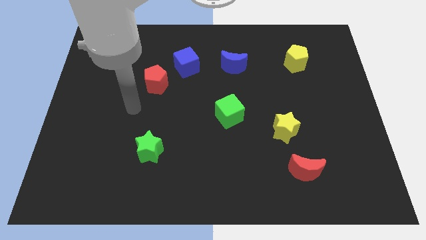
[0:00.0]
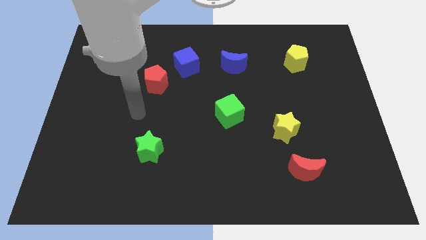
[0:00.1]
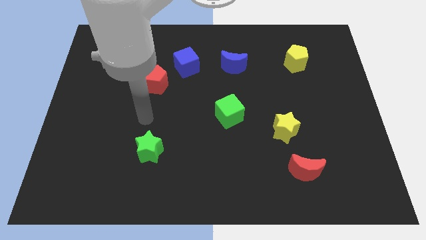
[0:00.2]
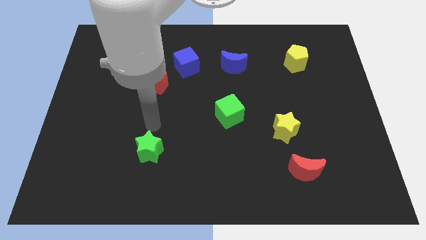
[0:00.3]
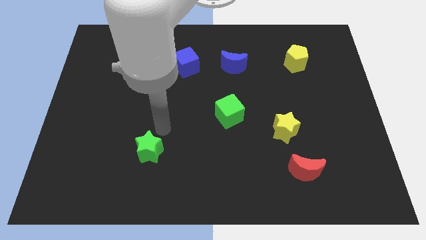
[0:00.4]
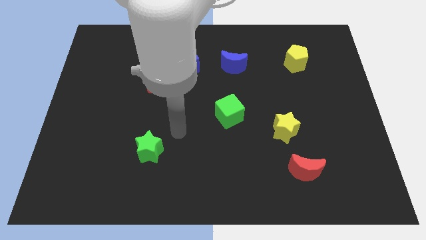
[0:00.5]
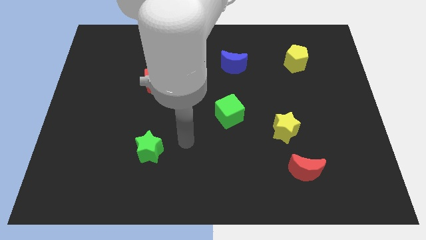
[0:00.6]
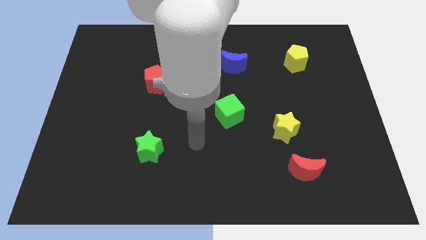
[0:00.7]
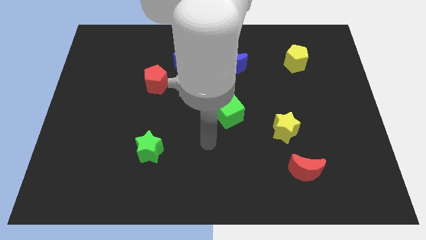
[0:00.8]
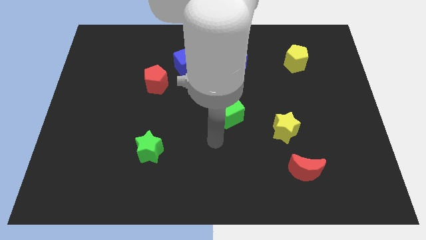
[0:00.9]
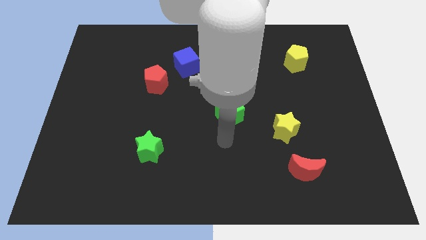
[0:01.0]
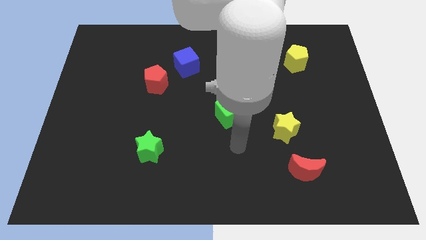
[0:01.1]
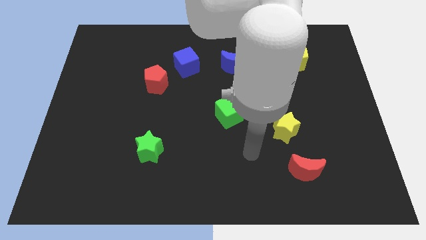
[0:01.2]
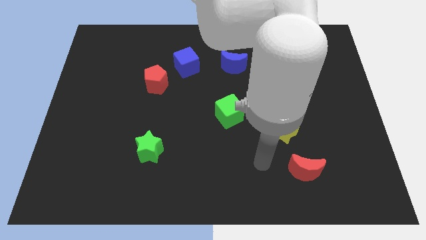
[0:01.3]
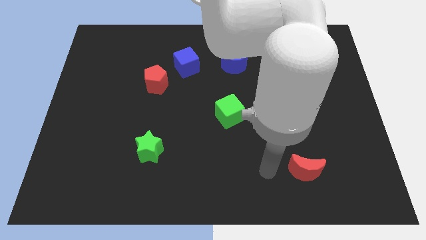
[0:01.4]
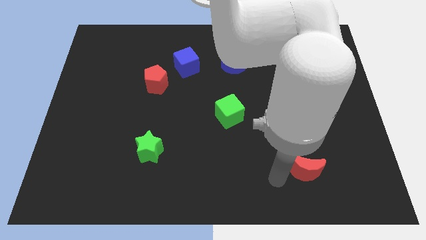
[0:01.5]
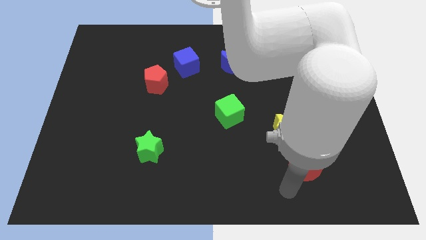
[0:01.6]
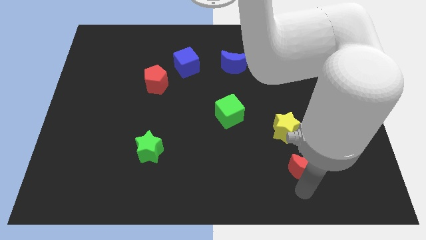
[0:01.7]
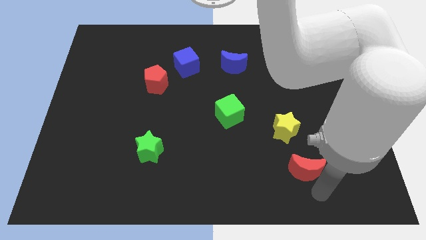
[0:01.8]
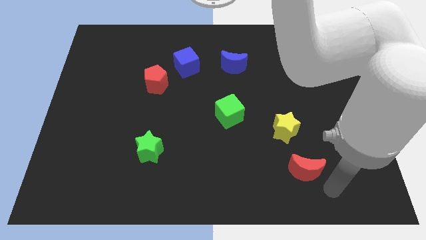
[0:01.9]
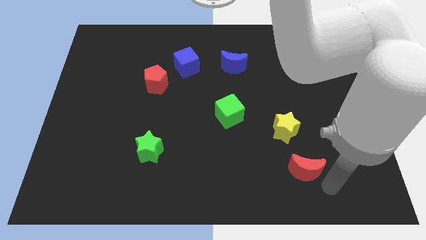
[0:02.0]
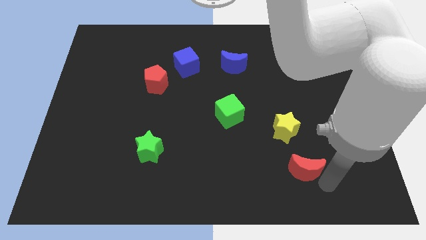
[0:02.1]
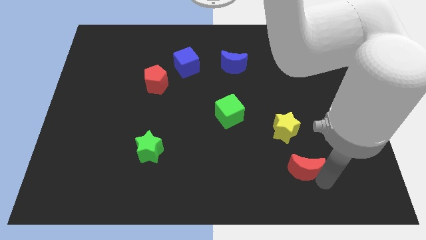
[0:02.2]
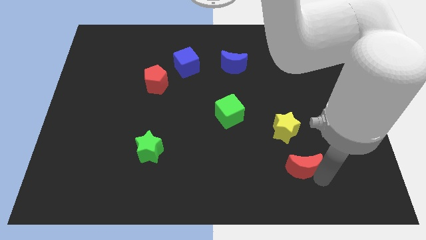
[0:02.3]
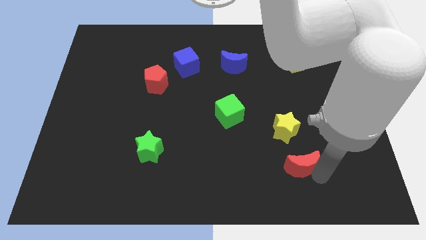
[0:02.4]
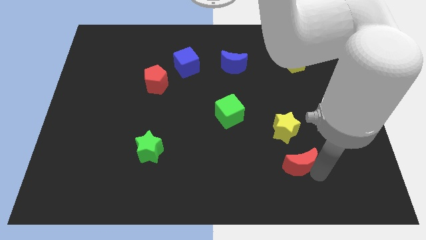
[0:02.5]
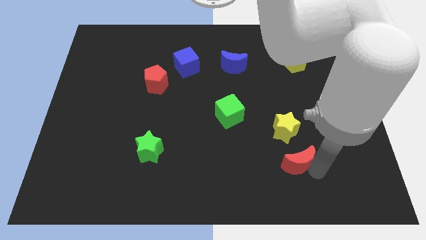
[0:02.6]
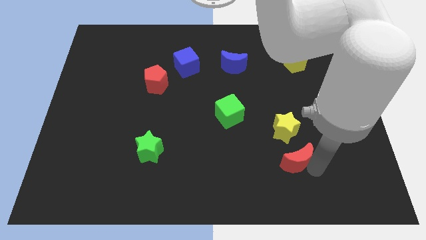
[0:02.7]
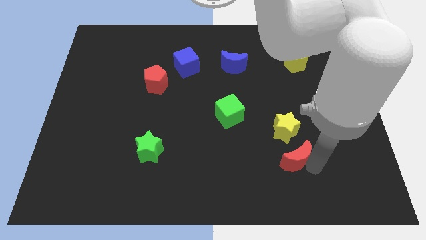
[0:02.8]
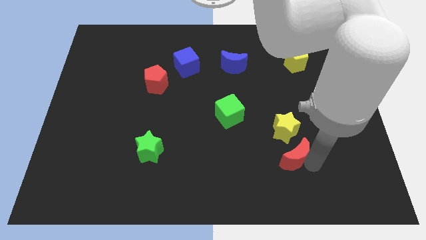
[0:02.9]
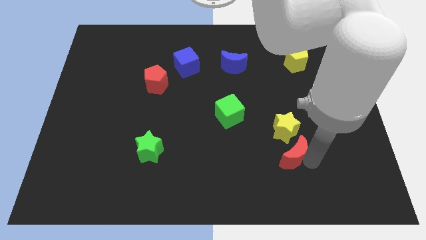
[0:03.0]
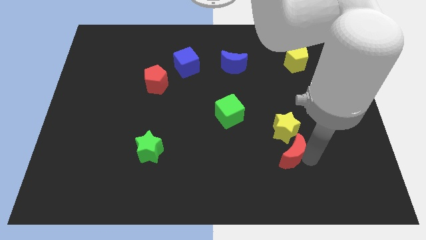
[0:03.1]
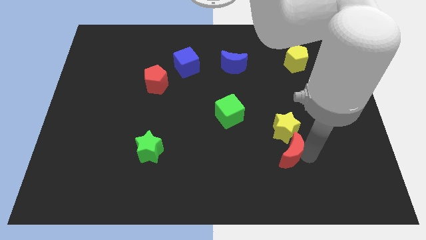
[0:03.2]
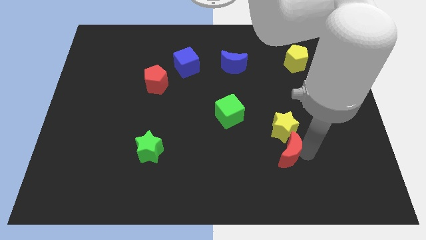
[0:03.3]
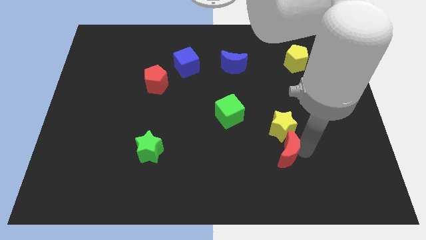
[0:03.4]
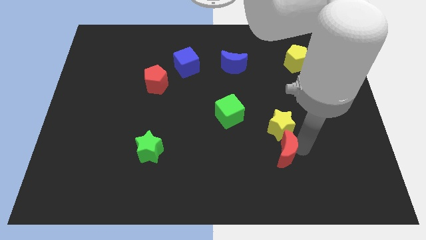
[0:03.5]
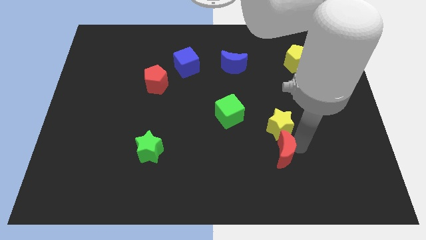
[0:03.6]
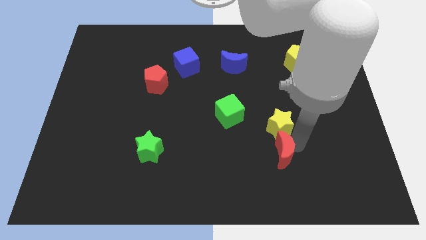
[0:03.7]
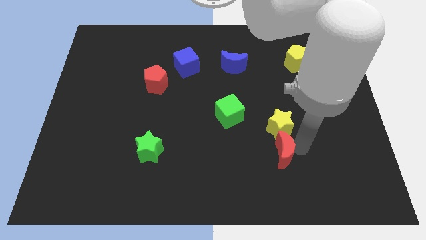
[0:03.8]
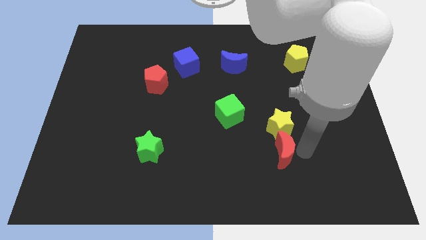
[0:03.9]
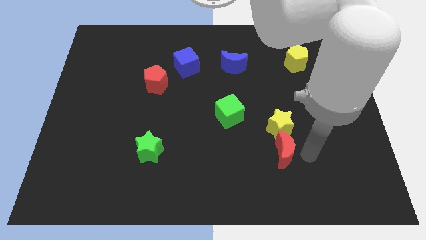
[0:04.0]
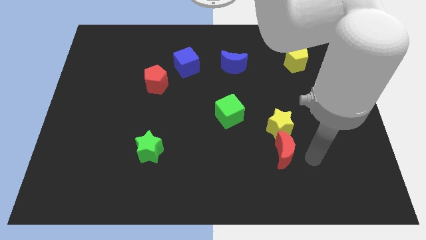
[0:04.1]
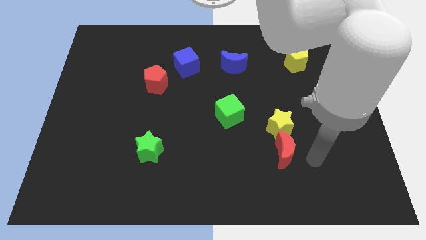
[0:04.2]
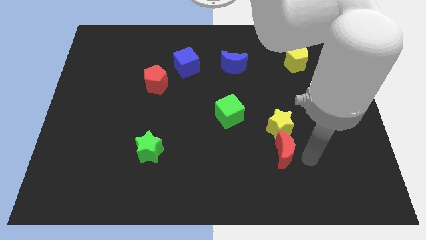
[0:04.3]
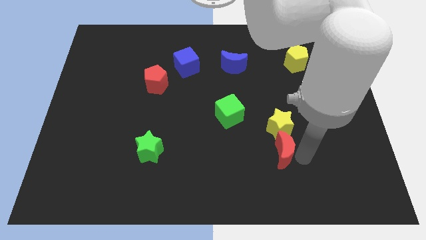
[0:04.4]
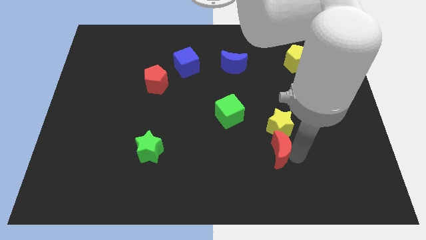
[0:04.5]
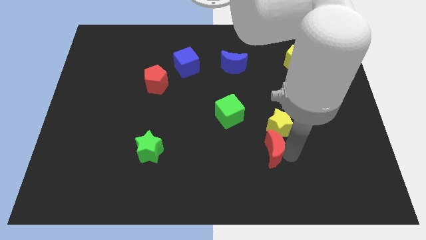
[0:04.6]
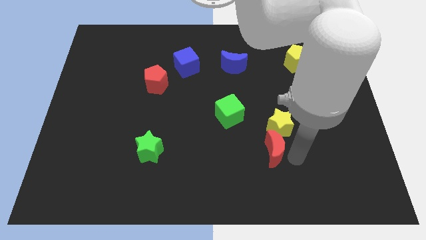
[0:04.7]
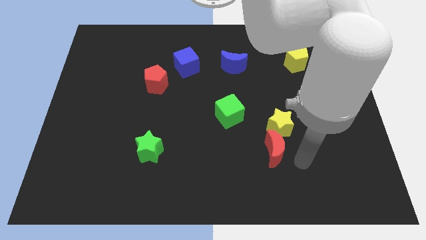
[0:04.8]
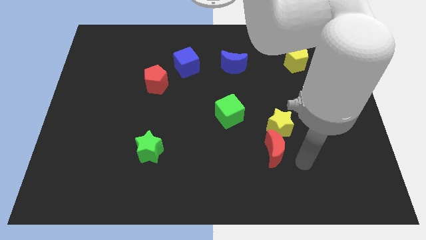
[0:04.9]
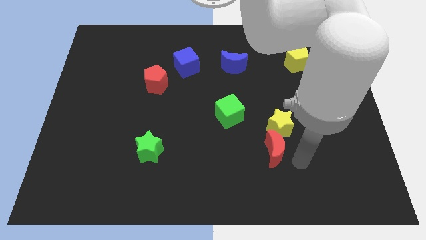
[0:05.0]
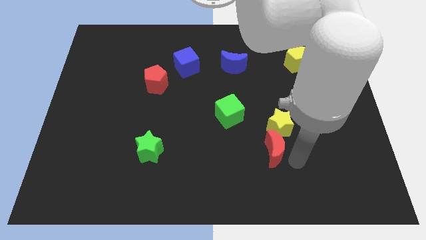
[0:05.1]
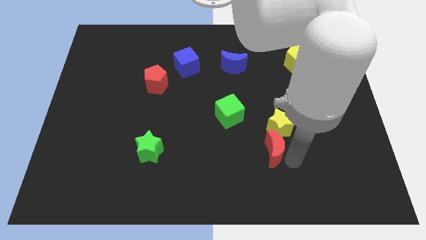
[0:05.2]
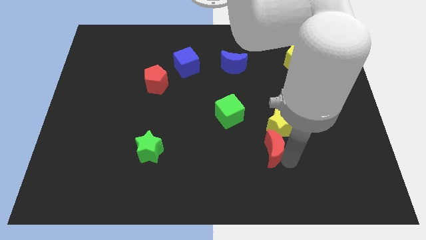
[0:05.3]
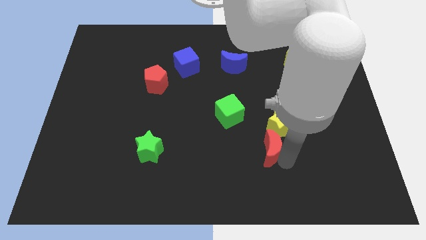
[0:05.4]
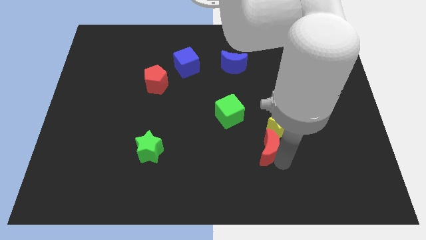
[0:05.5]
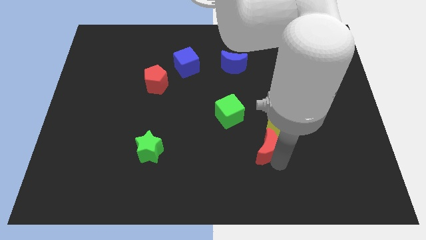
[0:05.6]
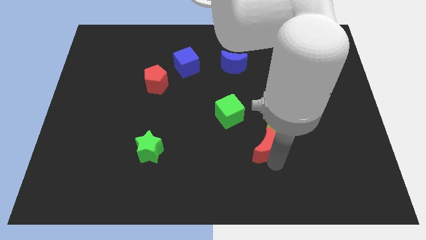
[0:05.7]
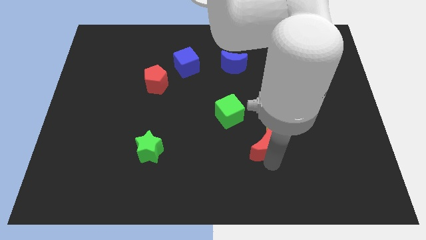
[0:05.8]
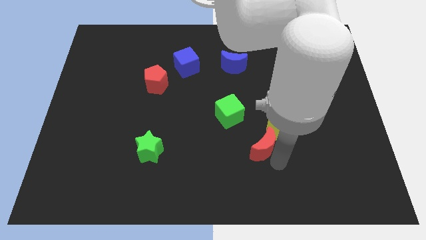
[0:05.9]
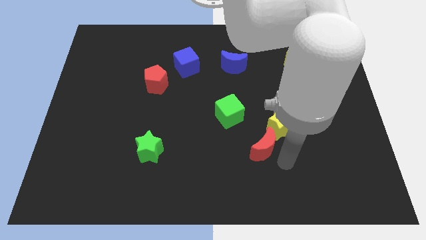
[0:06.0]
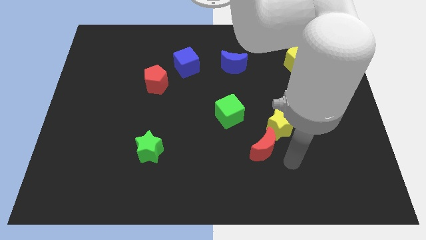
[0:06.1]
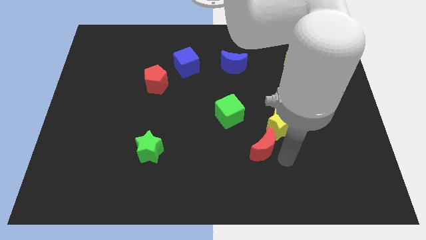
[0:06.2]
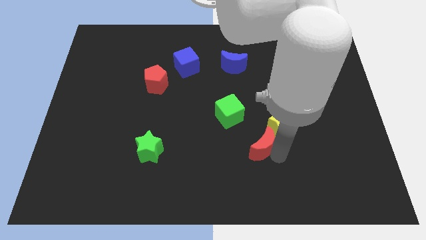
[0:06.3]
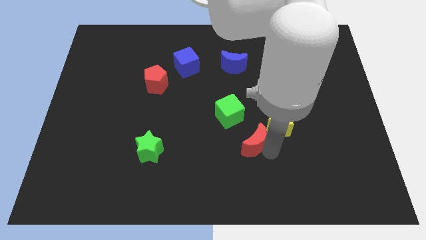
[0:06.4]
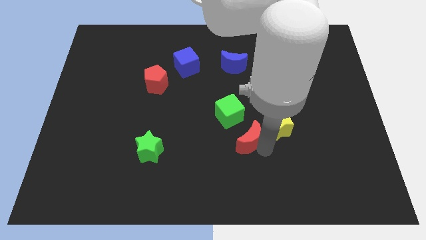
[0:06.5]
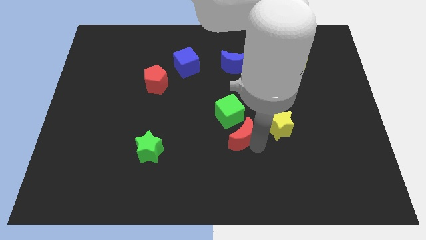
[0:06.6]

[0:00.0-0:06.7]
push the red moon to the center of the board
